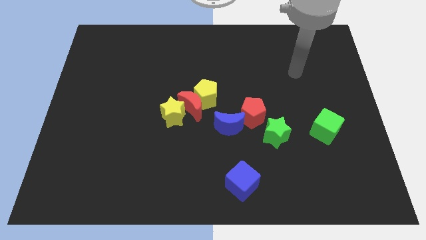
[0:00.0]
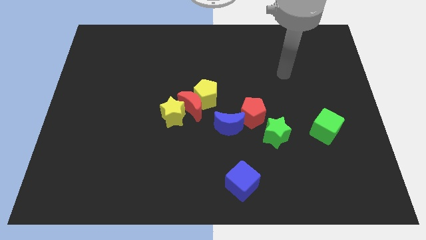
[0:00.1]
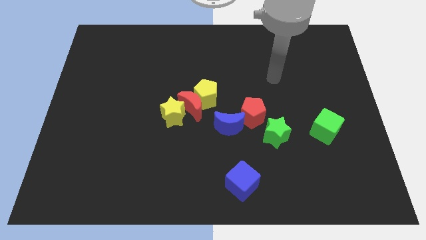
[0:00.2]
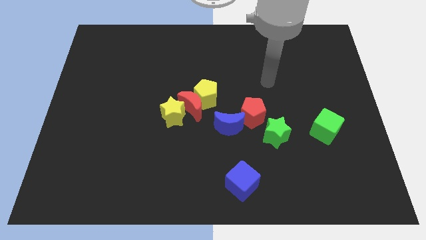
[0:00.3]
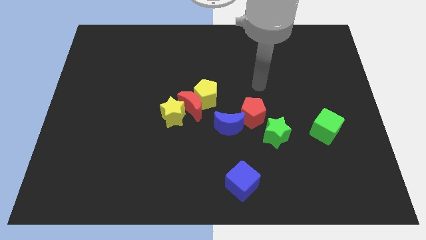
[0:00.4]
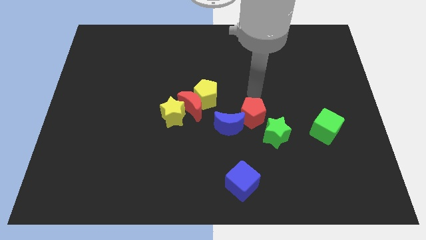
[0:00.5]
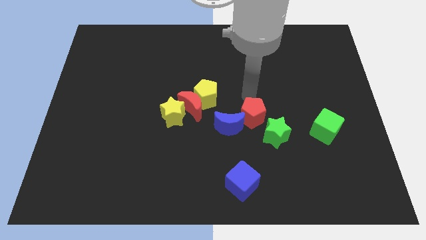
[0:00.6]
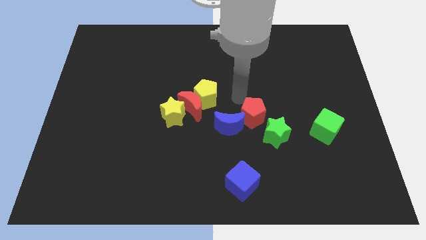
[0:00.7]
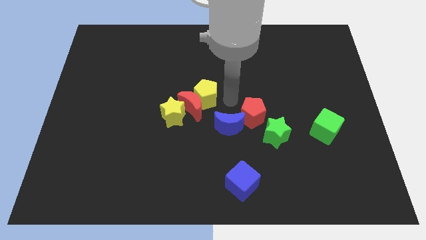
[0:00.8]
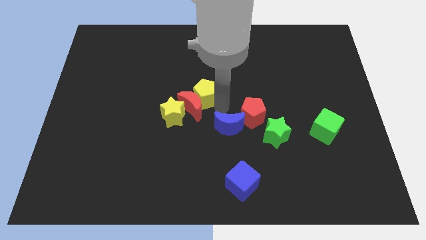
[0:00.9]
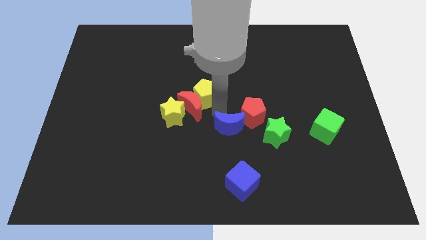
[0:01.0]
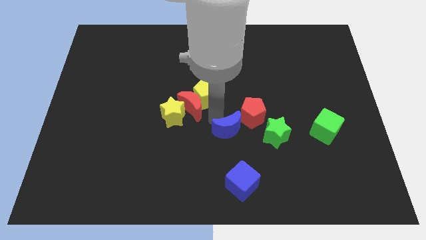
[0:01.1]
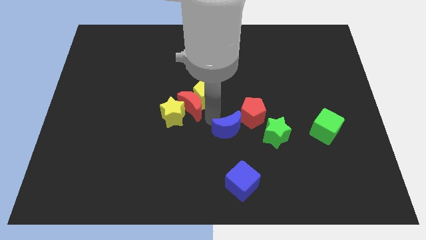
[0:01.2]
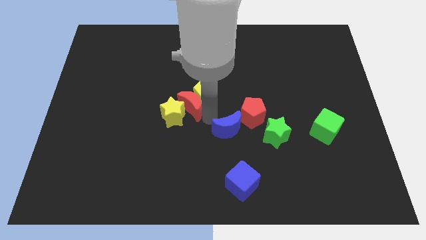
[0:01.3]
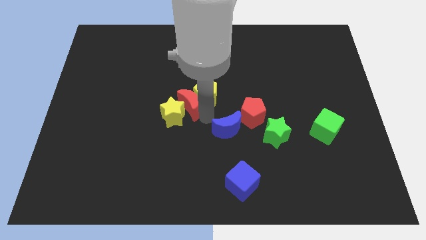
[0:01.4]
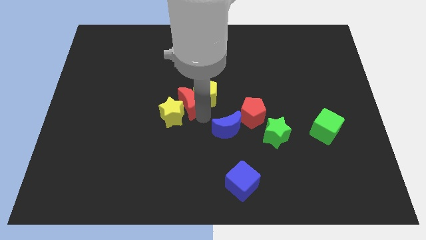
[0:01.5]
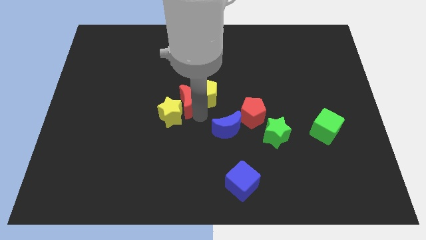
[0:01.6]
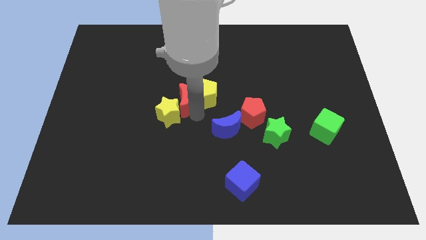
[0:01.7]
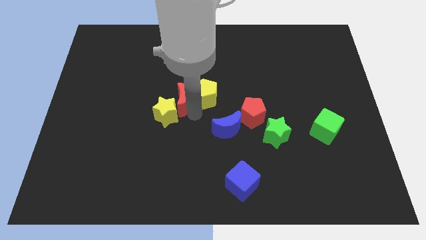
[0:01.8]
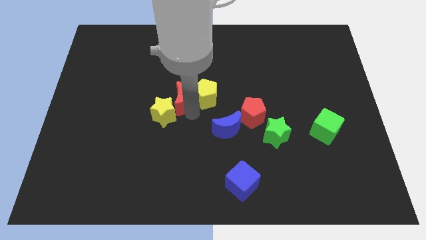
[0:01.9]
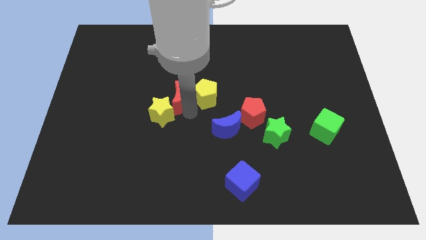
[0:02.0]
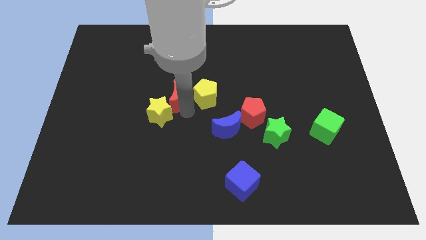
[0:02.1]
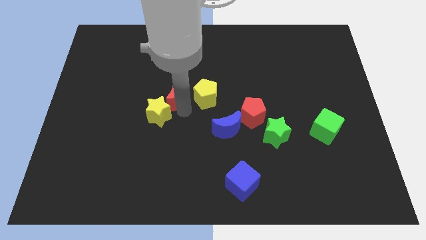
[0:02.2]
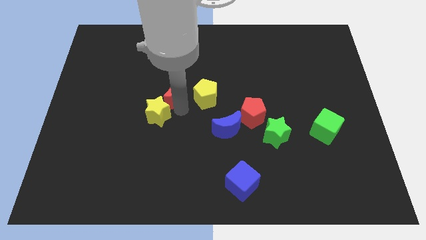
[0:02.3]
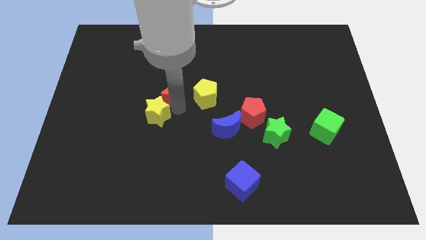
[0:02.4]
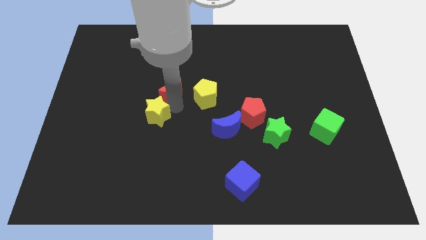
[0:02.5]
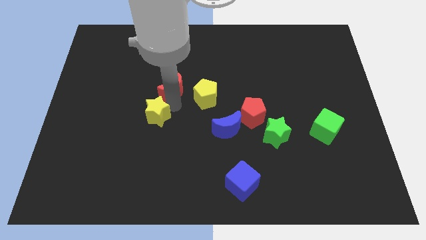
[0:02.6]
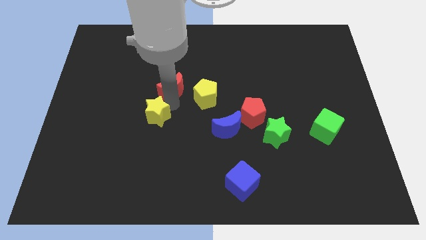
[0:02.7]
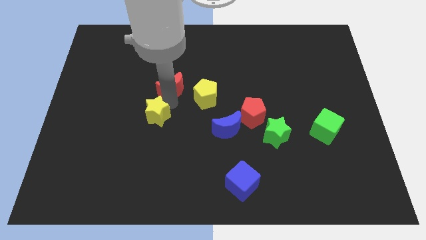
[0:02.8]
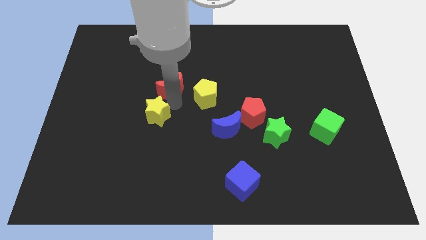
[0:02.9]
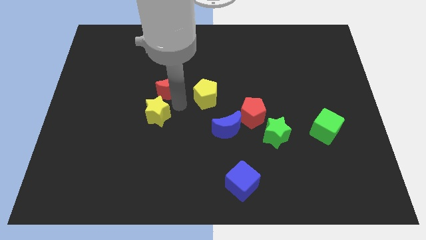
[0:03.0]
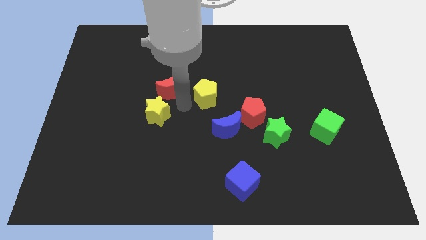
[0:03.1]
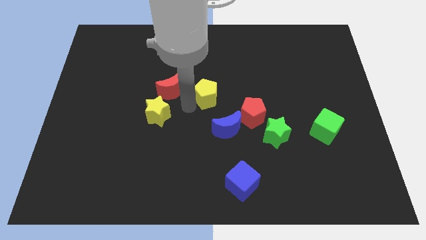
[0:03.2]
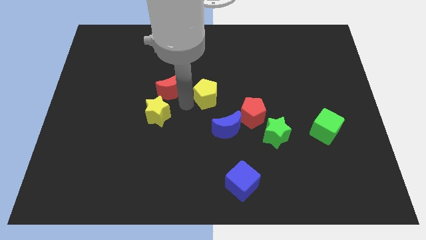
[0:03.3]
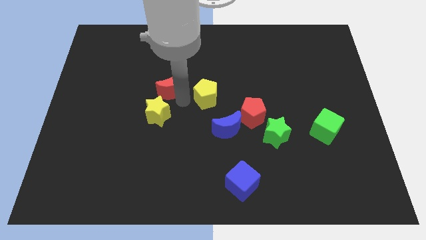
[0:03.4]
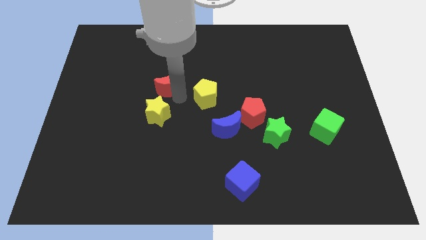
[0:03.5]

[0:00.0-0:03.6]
move the red moon away from the clump

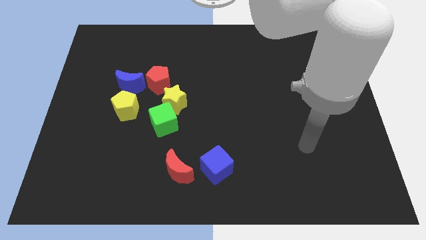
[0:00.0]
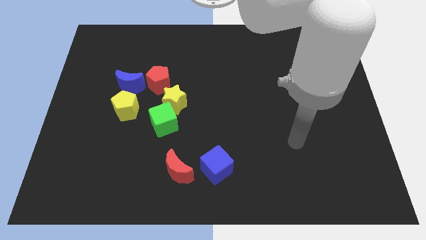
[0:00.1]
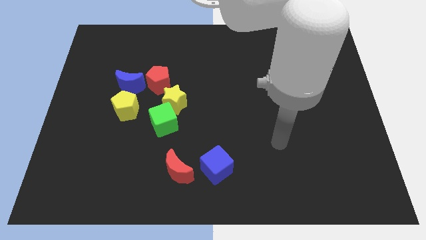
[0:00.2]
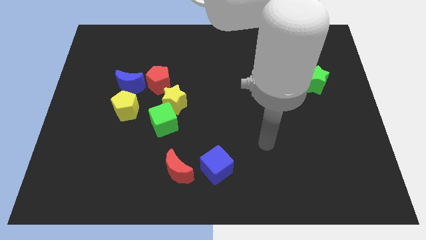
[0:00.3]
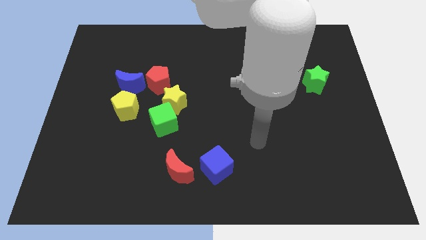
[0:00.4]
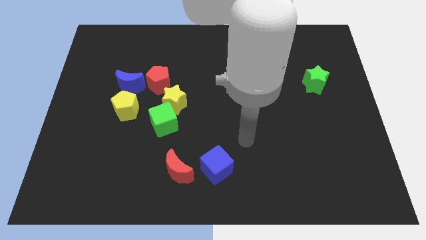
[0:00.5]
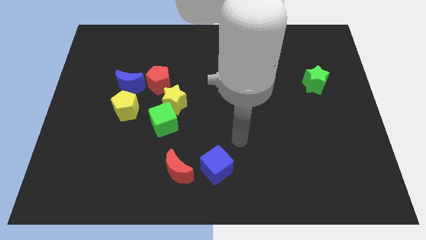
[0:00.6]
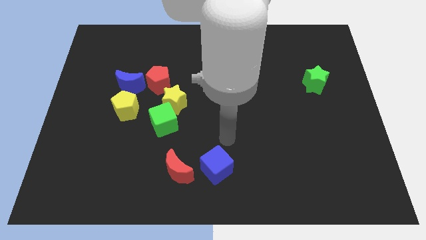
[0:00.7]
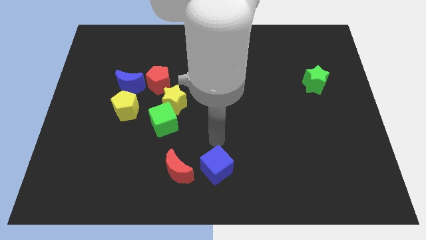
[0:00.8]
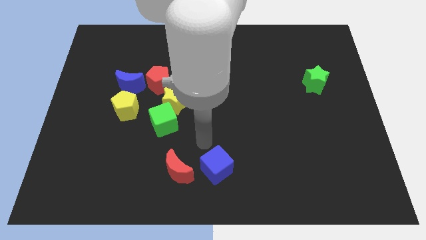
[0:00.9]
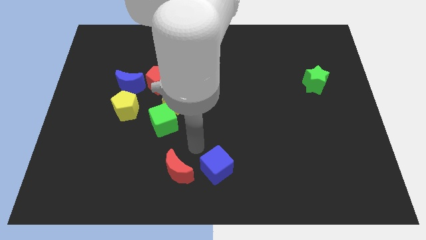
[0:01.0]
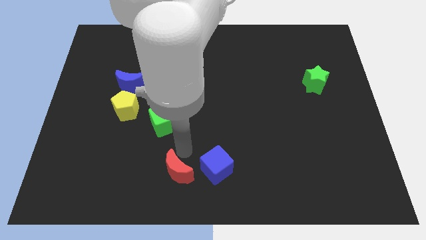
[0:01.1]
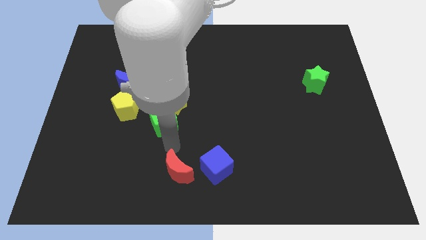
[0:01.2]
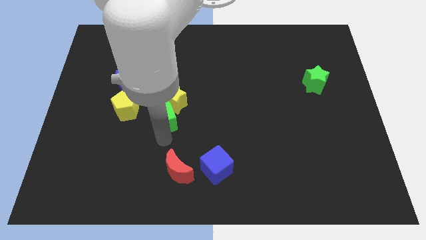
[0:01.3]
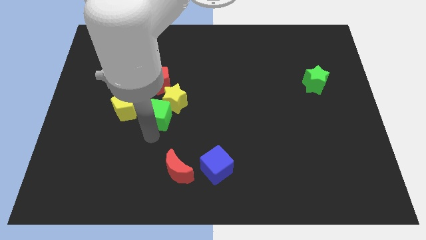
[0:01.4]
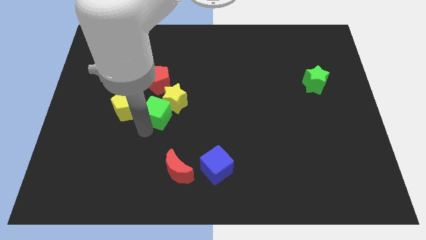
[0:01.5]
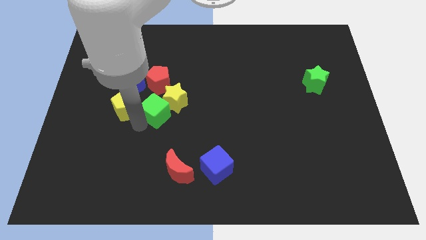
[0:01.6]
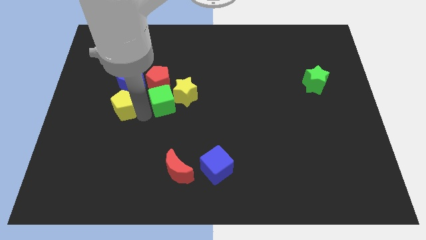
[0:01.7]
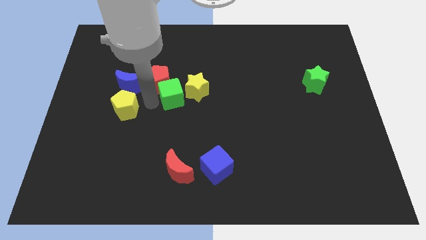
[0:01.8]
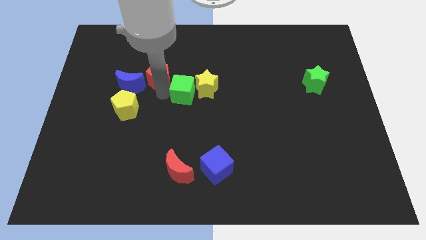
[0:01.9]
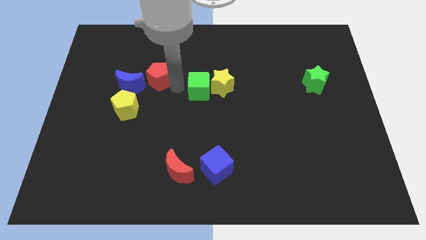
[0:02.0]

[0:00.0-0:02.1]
pull the yellow star apart from the green cube and red pentagon

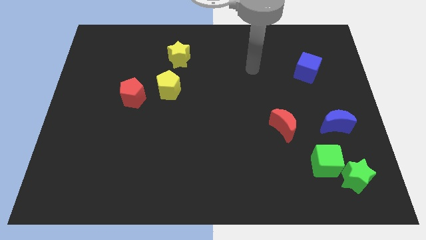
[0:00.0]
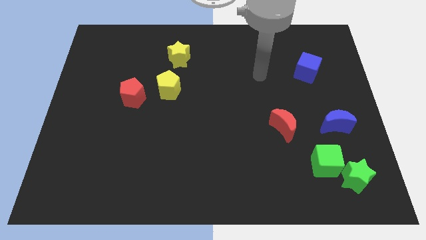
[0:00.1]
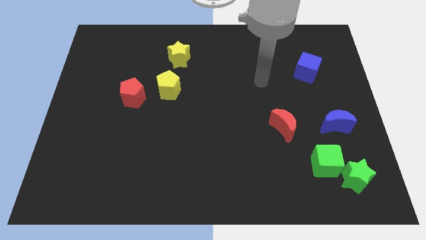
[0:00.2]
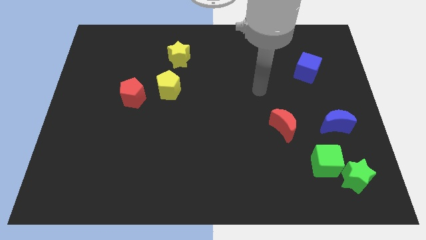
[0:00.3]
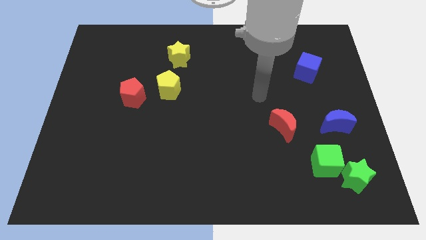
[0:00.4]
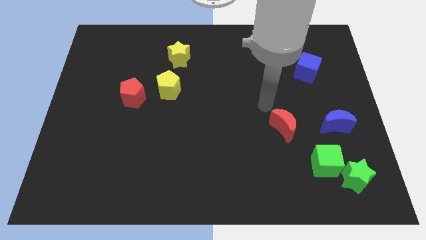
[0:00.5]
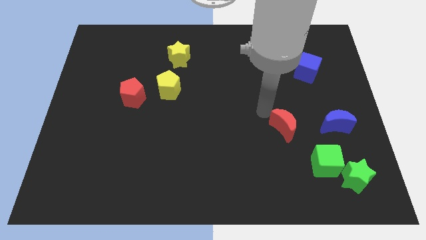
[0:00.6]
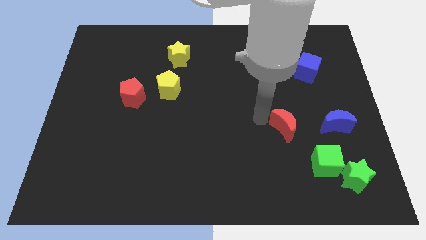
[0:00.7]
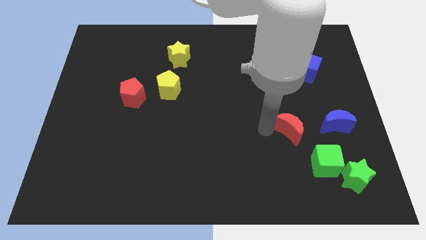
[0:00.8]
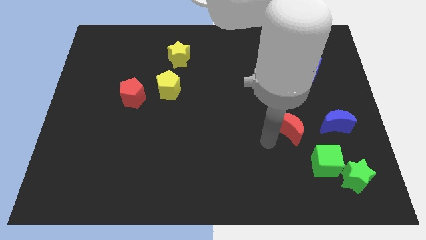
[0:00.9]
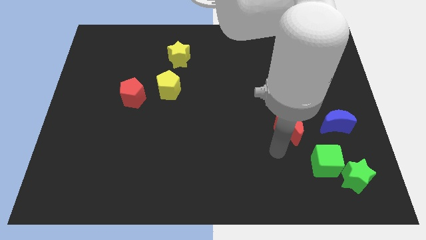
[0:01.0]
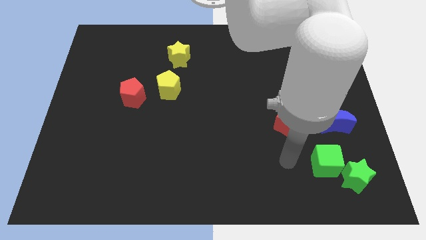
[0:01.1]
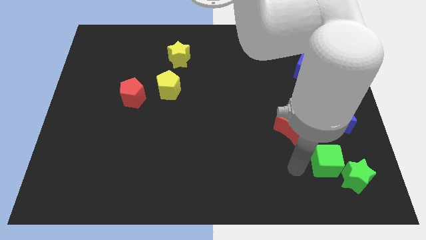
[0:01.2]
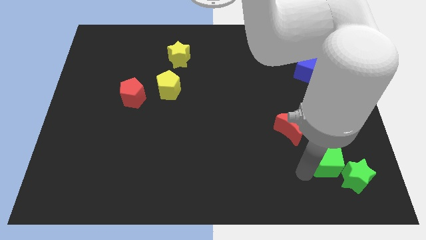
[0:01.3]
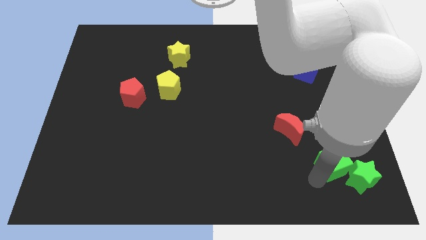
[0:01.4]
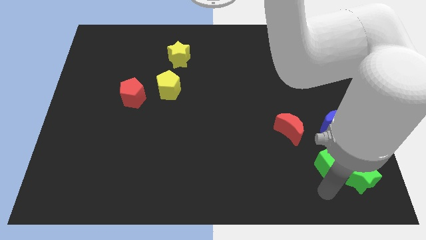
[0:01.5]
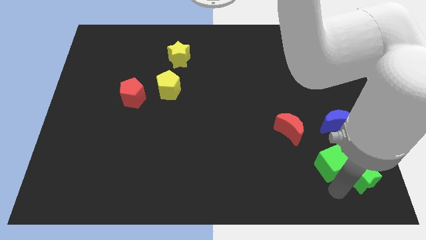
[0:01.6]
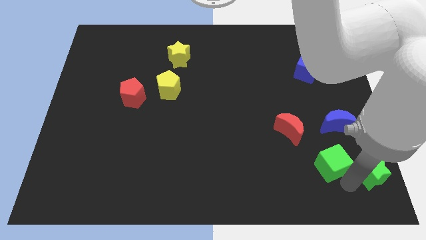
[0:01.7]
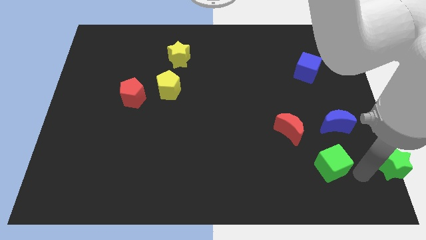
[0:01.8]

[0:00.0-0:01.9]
pull the green cube apart from the green star

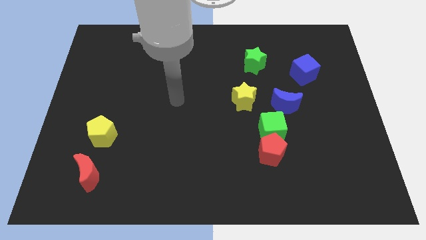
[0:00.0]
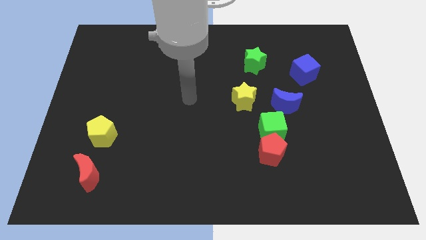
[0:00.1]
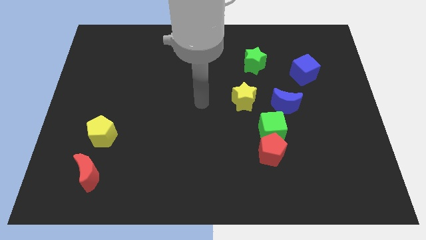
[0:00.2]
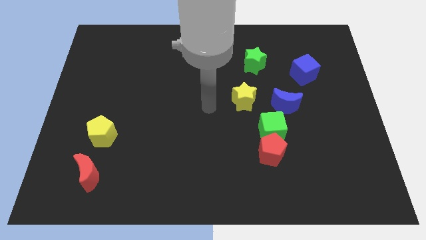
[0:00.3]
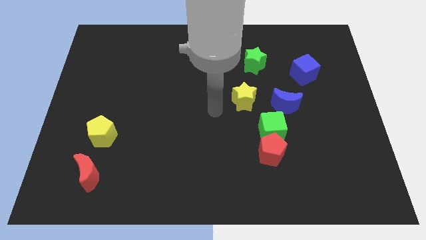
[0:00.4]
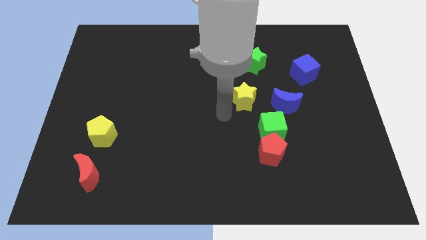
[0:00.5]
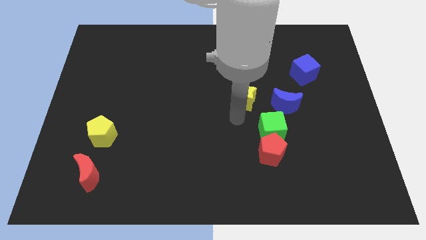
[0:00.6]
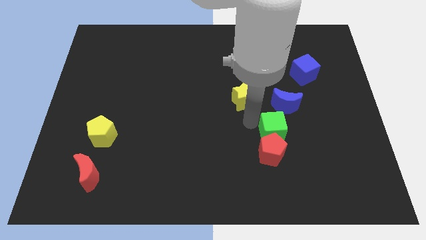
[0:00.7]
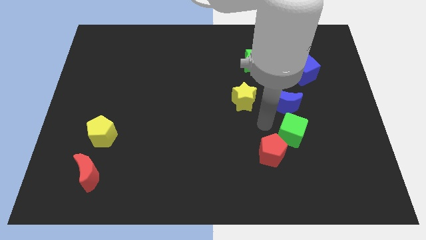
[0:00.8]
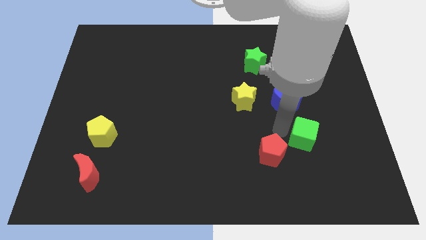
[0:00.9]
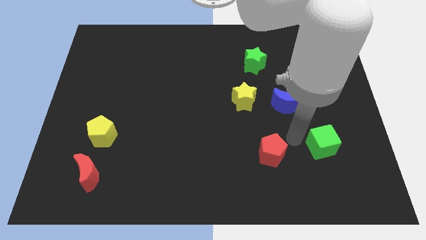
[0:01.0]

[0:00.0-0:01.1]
move the red pentagon away from the green cube

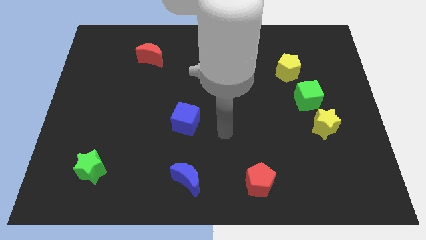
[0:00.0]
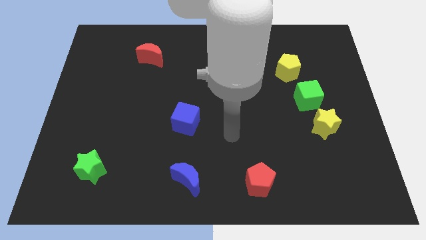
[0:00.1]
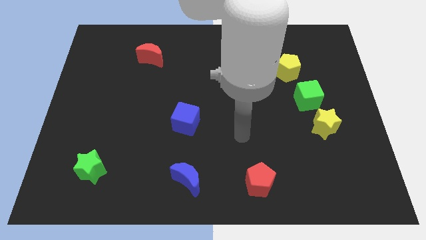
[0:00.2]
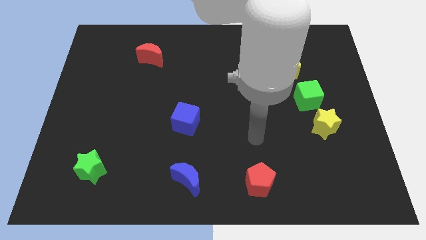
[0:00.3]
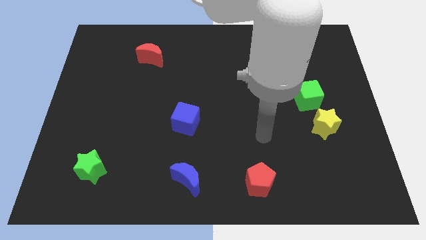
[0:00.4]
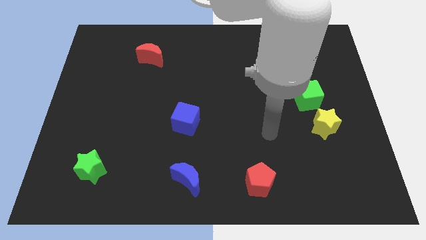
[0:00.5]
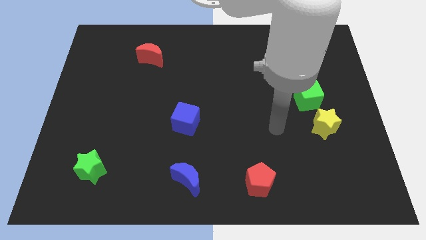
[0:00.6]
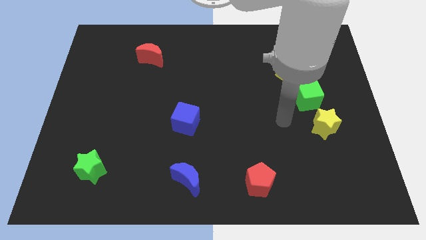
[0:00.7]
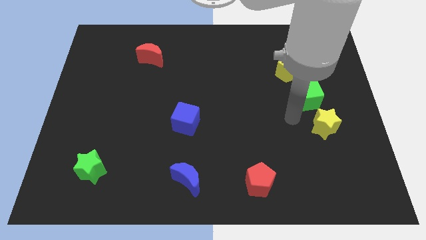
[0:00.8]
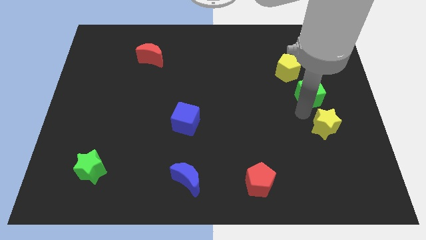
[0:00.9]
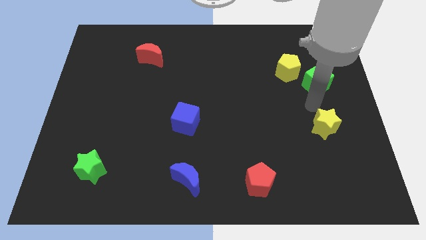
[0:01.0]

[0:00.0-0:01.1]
pull the yellow star apart from the green cube
